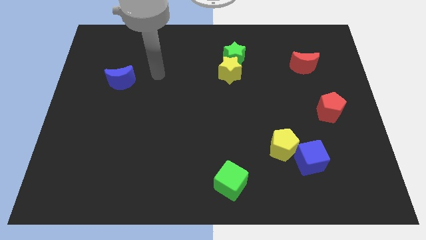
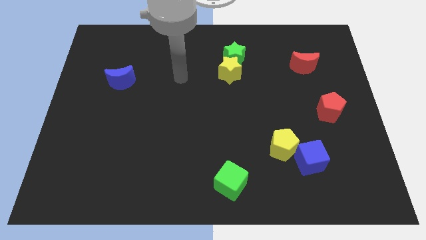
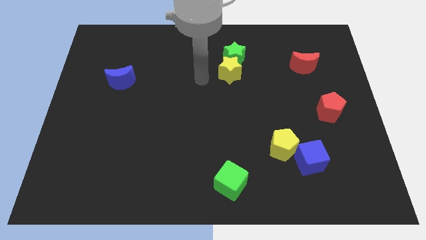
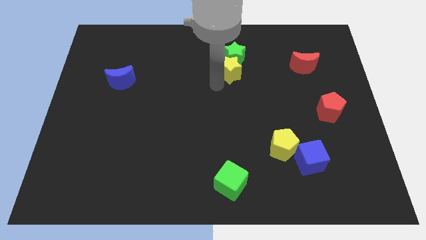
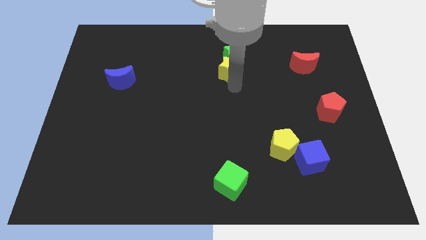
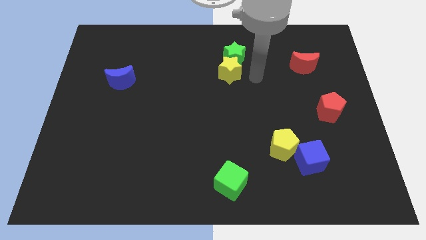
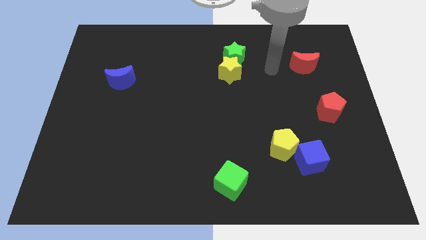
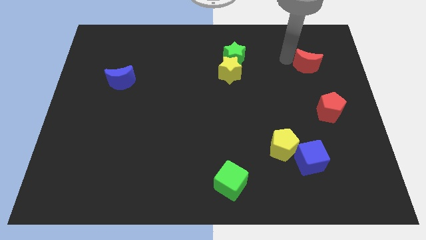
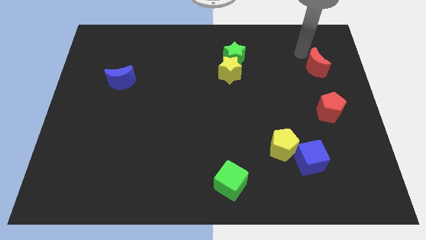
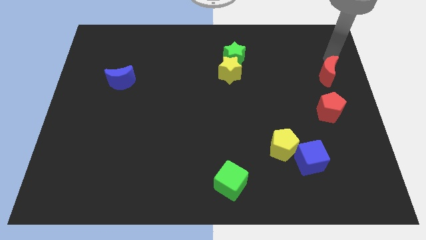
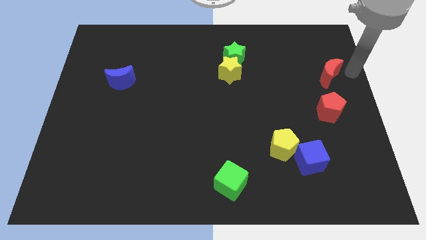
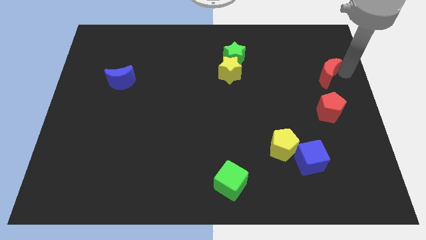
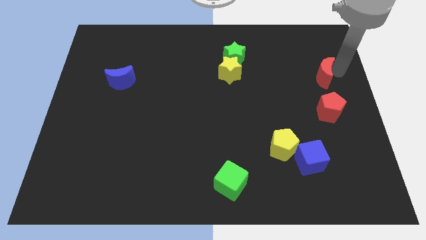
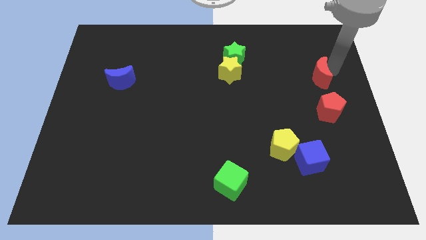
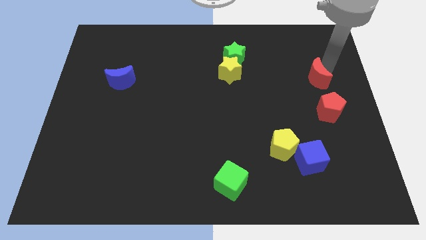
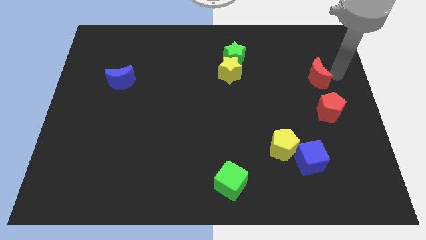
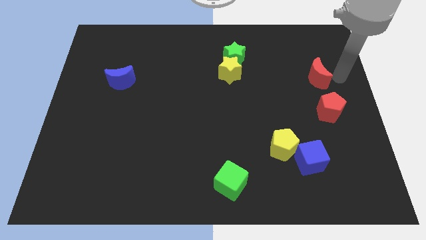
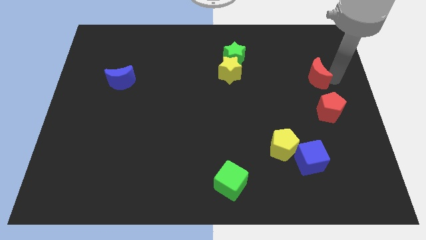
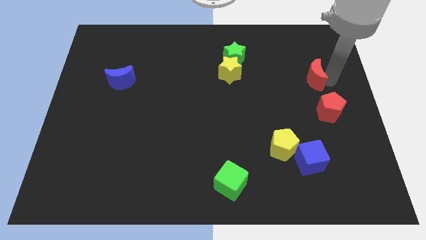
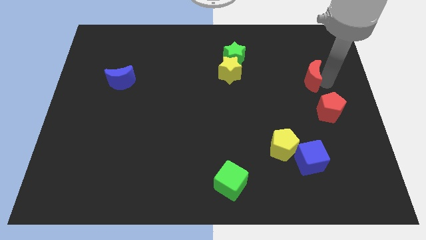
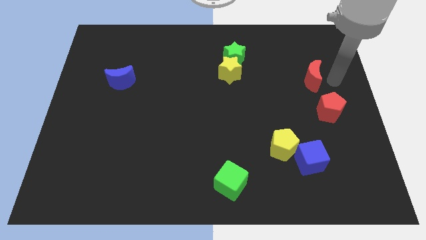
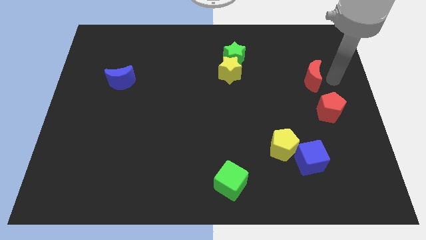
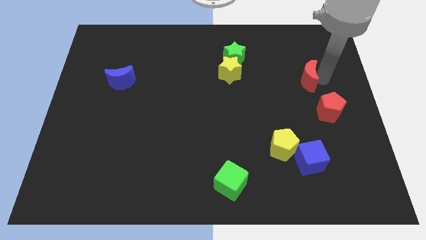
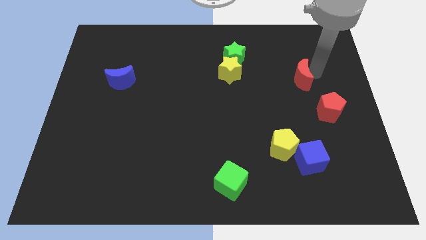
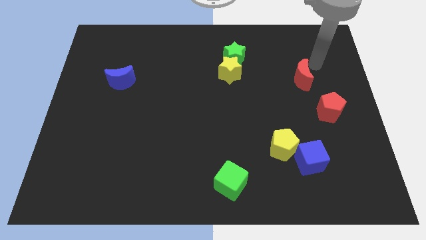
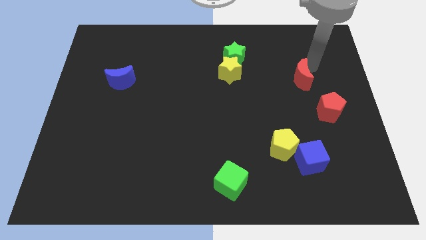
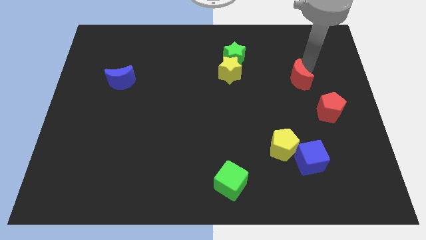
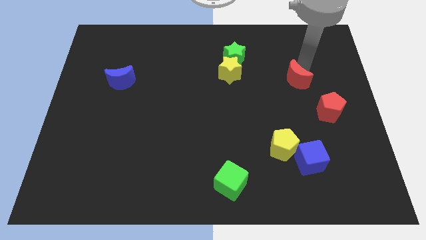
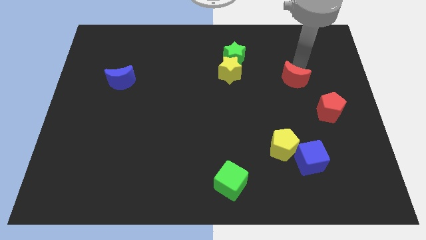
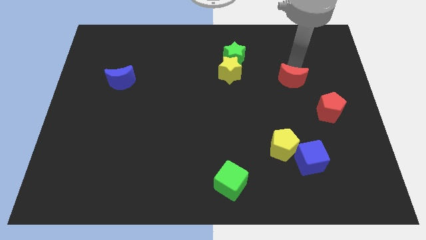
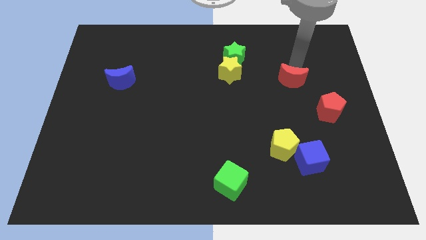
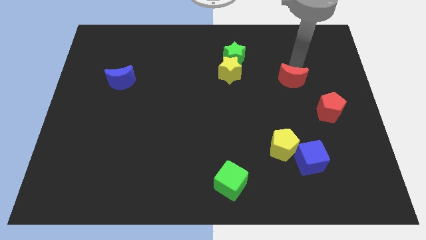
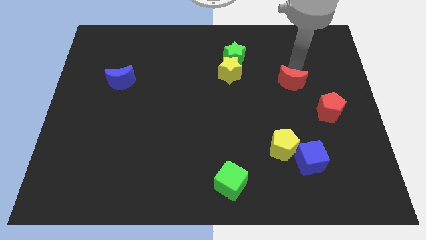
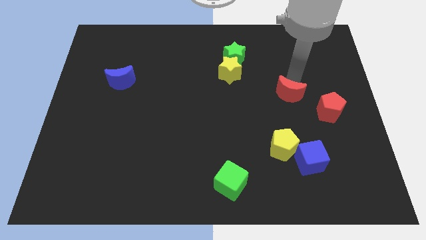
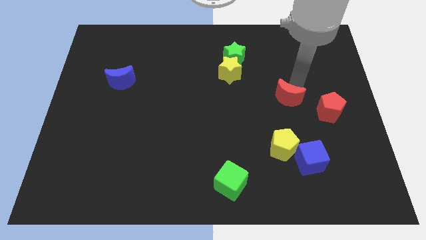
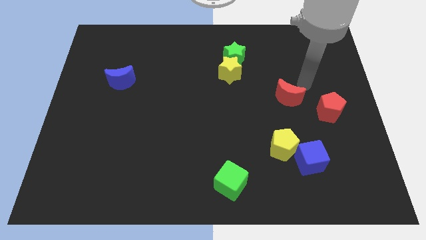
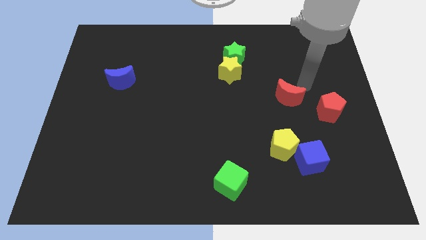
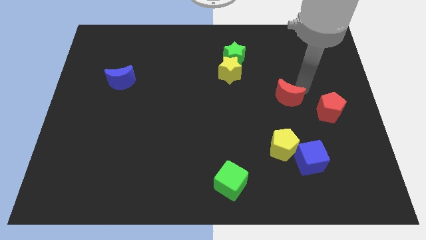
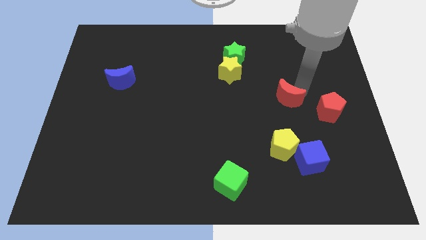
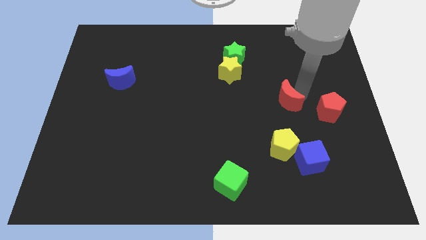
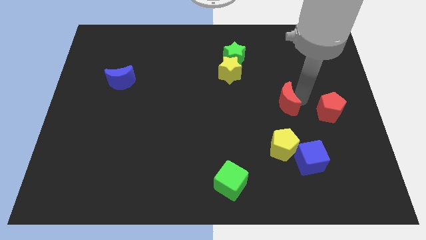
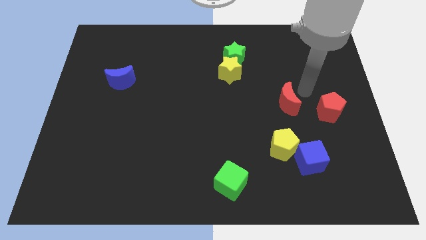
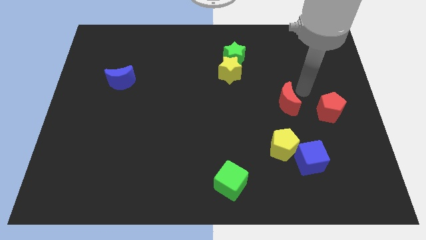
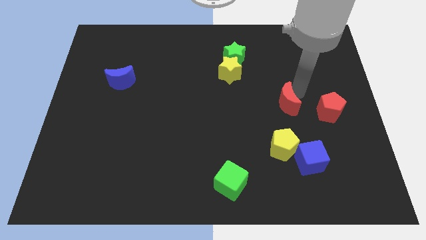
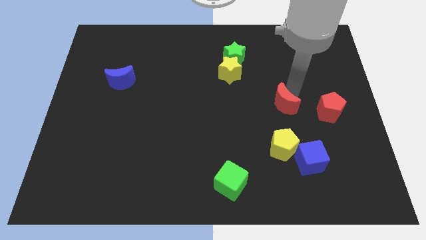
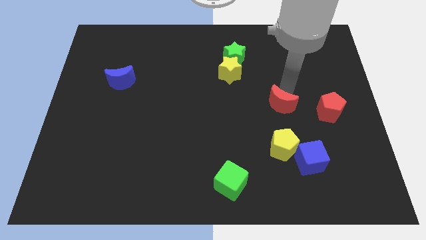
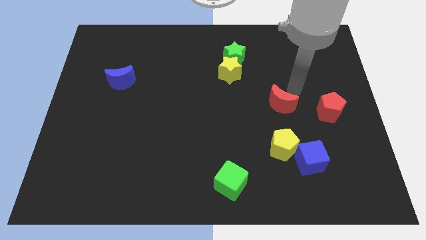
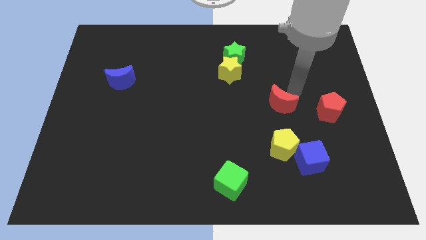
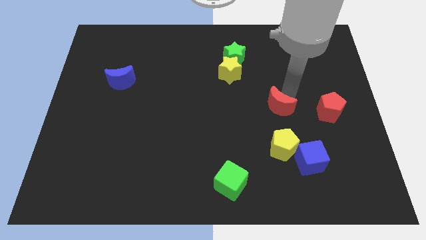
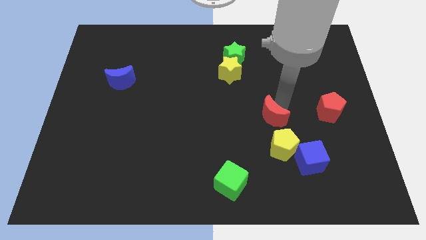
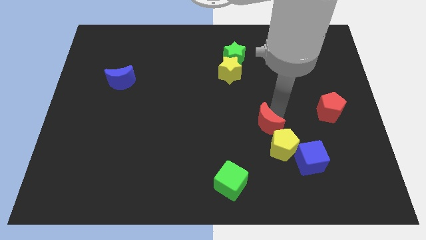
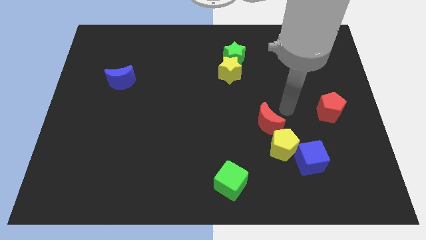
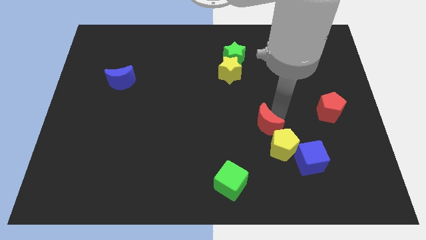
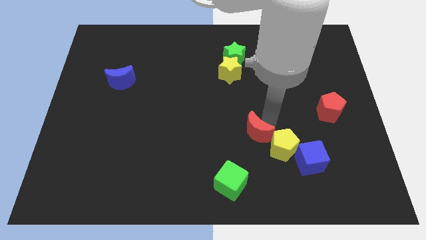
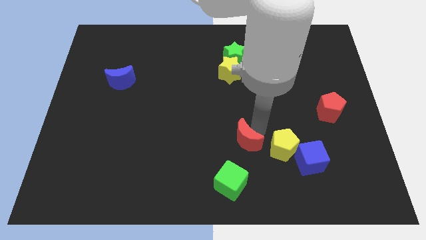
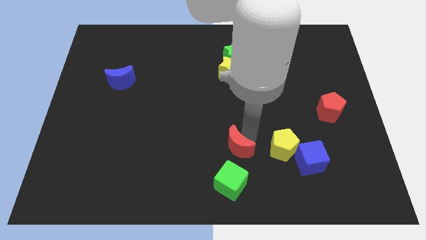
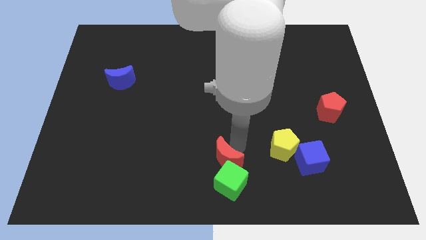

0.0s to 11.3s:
move the red moon to the bottom

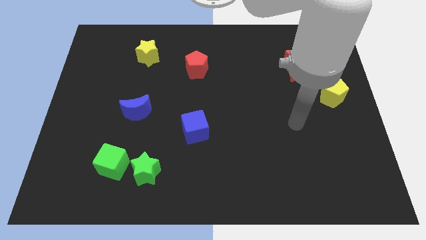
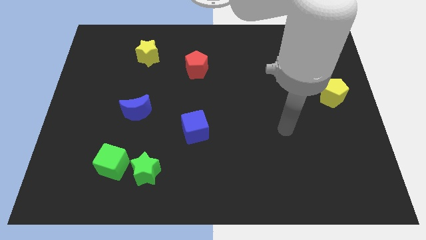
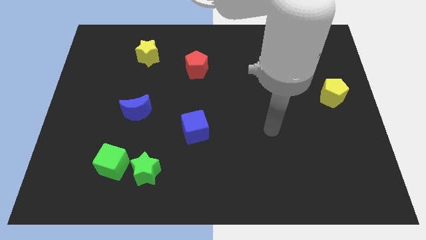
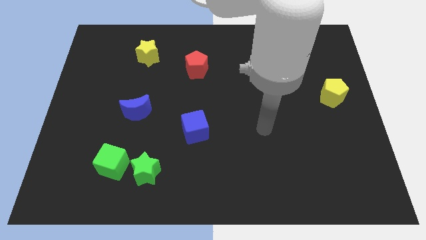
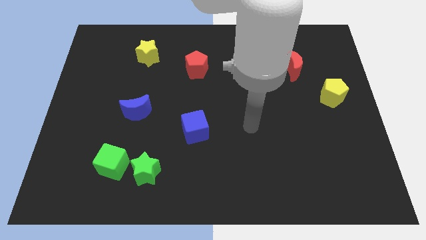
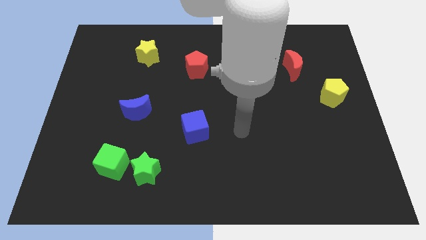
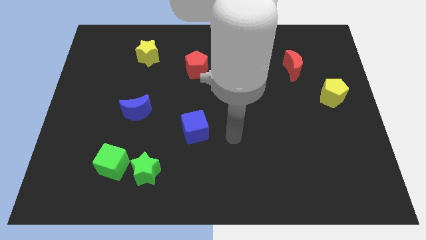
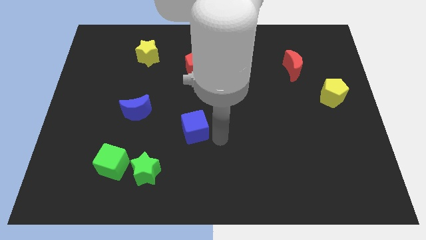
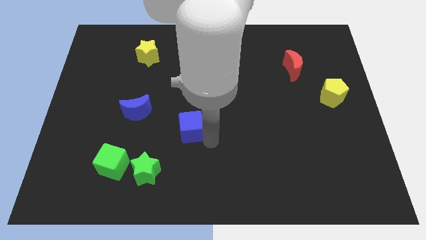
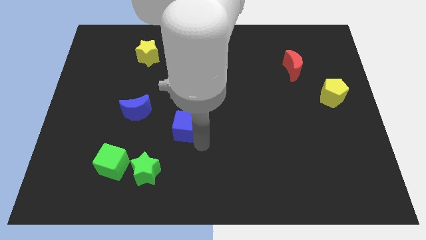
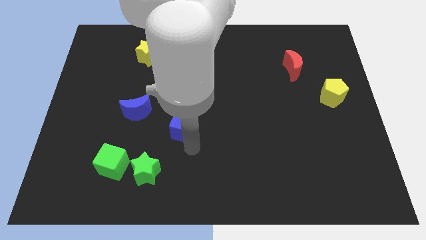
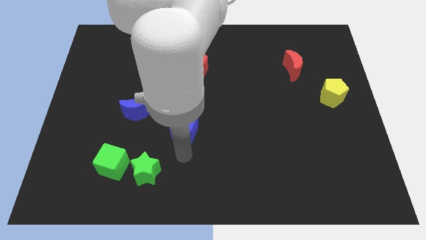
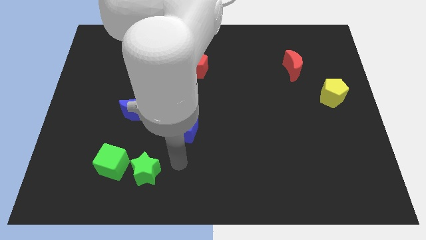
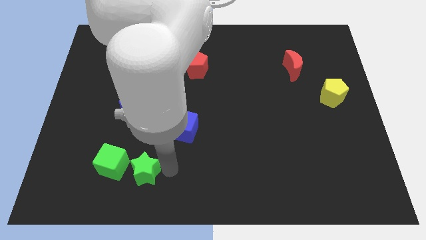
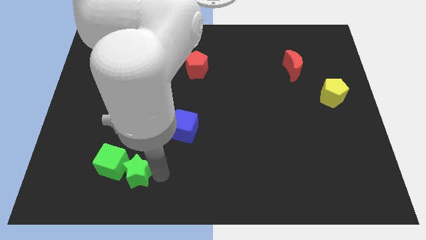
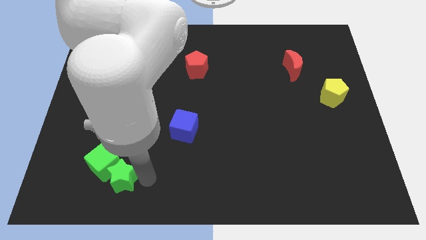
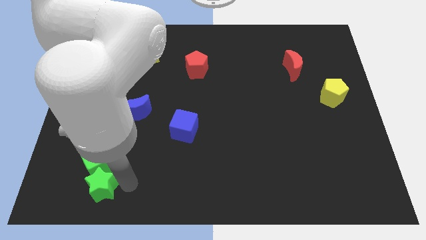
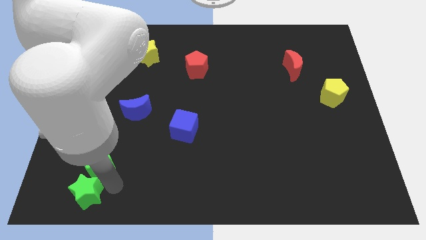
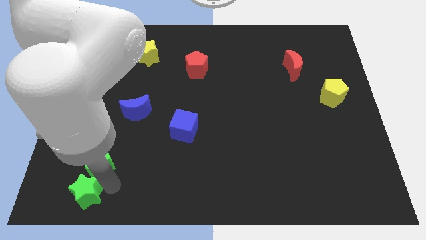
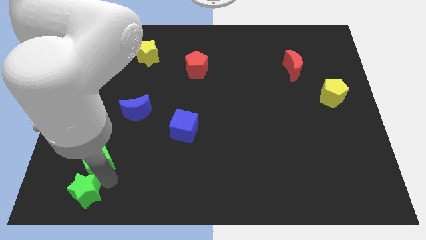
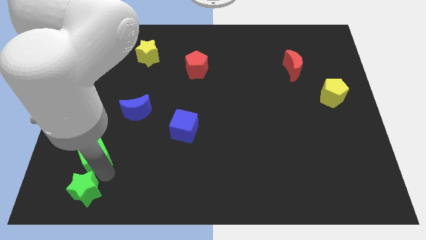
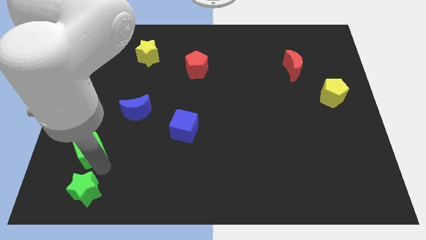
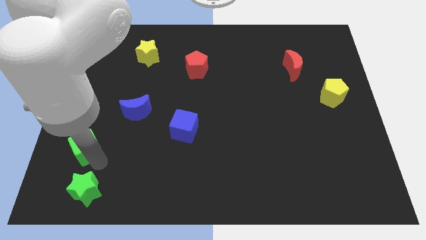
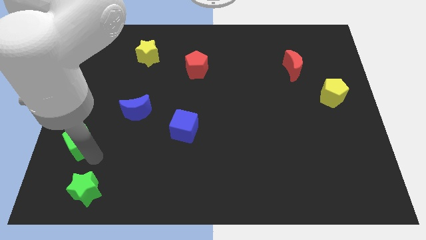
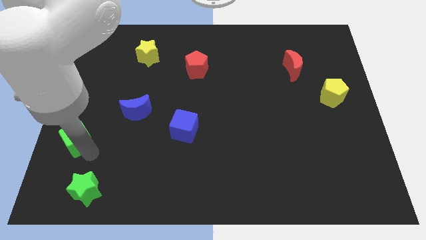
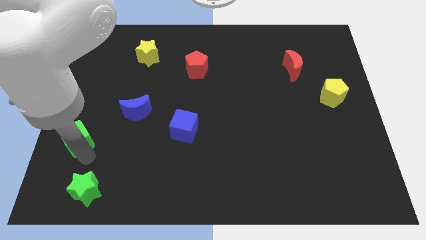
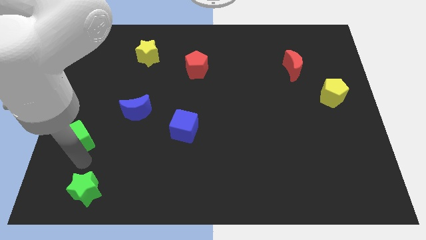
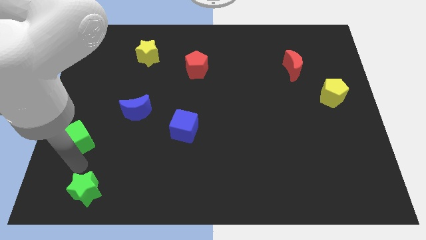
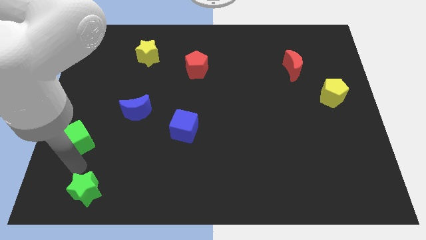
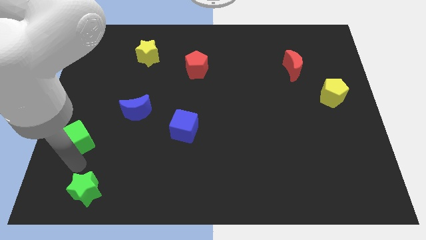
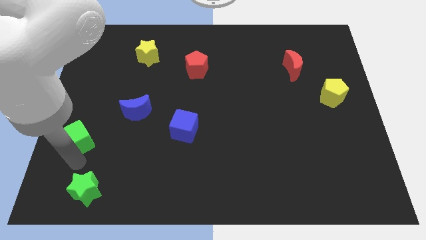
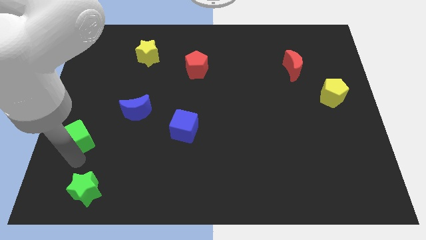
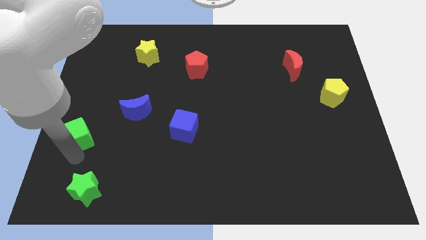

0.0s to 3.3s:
move the green cube to the left side
